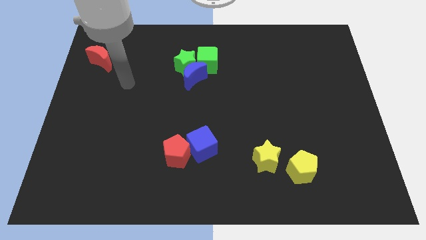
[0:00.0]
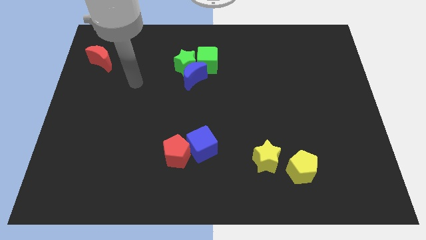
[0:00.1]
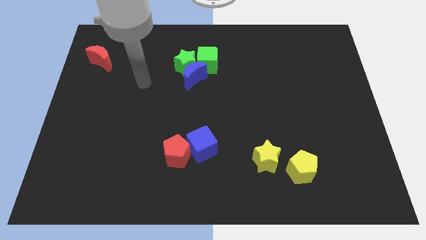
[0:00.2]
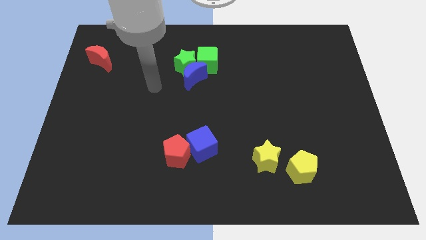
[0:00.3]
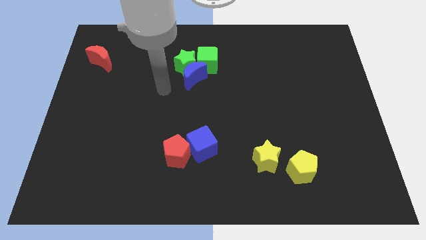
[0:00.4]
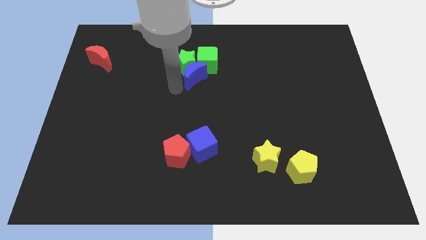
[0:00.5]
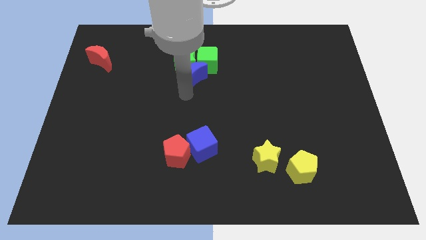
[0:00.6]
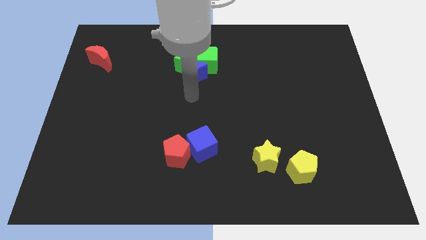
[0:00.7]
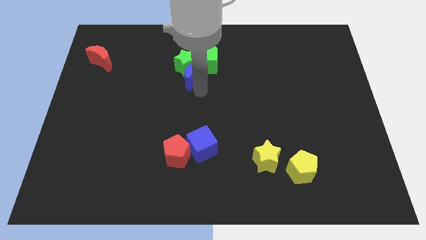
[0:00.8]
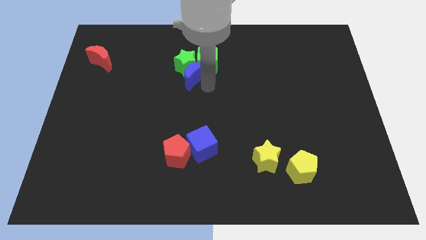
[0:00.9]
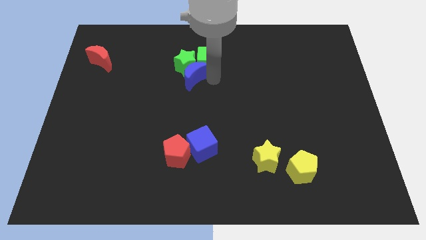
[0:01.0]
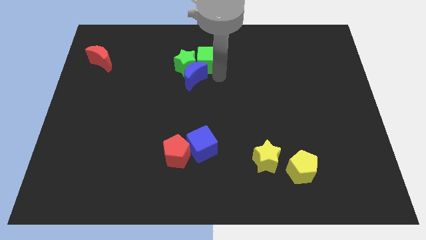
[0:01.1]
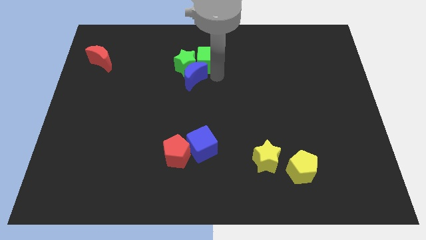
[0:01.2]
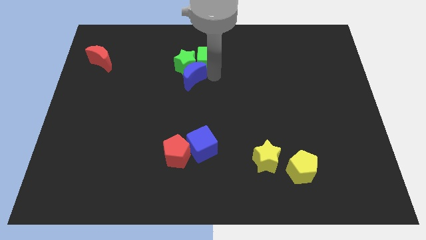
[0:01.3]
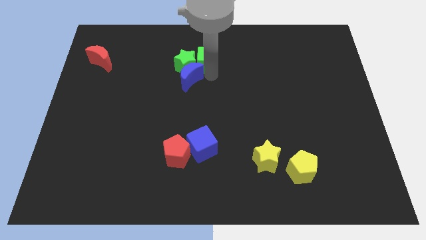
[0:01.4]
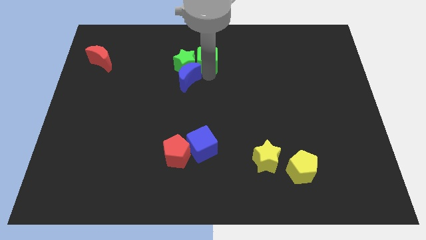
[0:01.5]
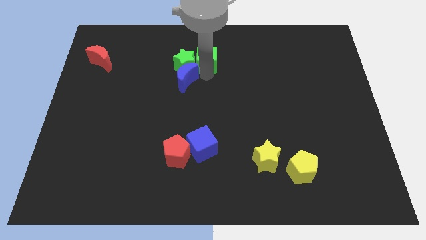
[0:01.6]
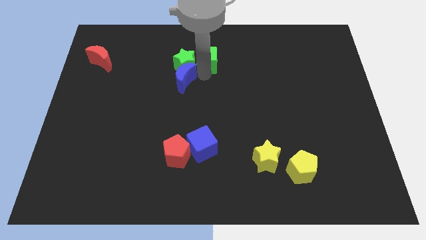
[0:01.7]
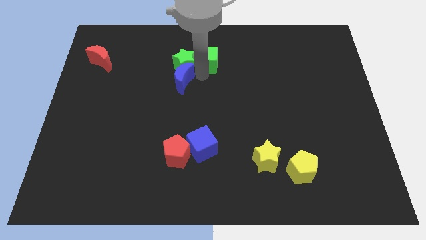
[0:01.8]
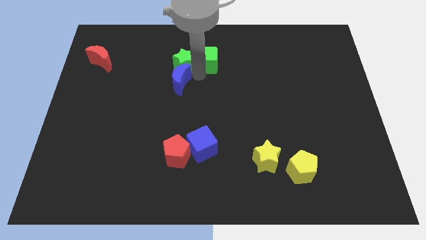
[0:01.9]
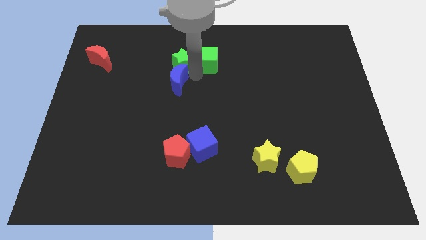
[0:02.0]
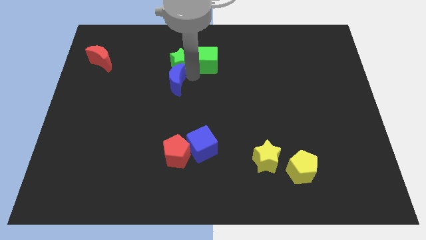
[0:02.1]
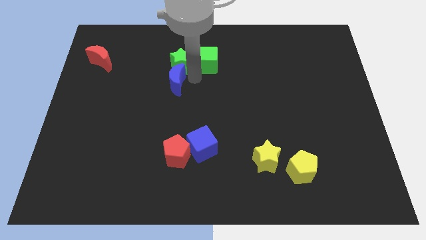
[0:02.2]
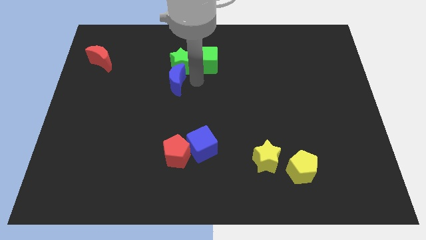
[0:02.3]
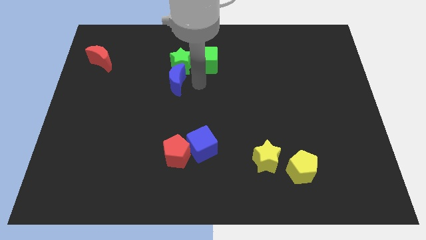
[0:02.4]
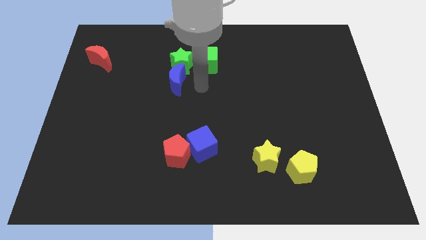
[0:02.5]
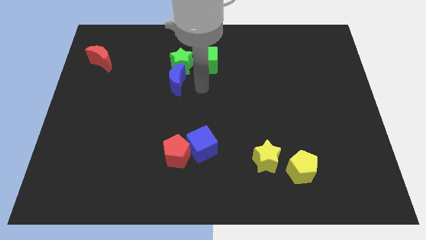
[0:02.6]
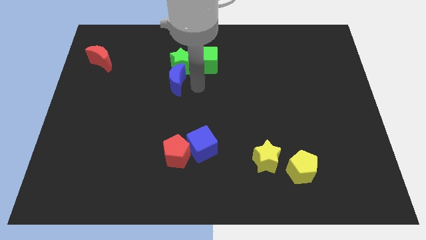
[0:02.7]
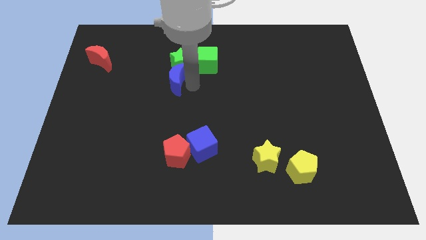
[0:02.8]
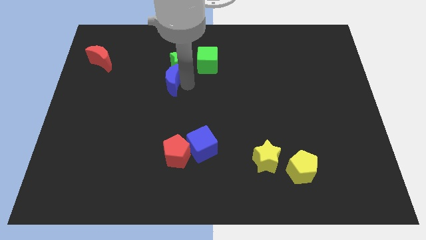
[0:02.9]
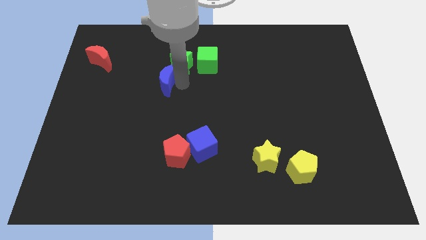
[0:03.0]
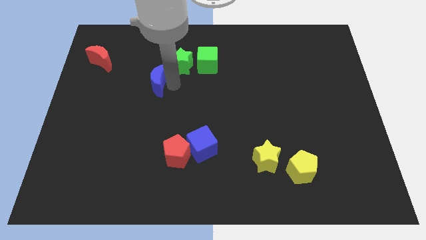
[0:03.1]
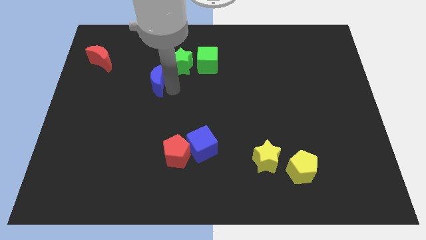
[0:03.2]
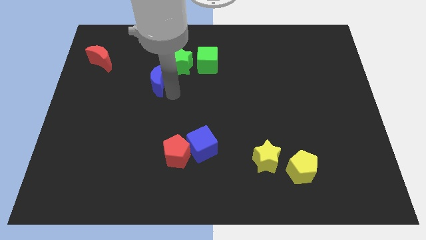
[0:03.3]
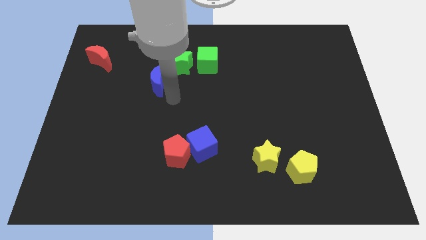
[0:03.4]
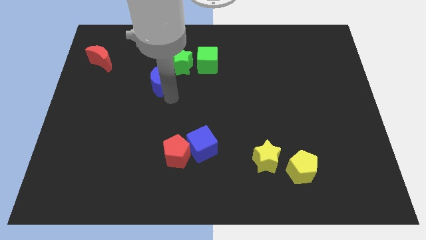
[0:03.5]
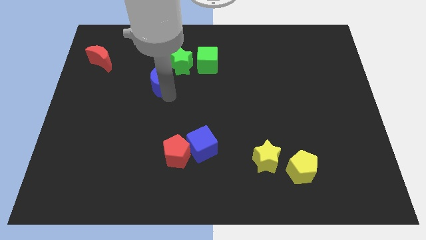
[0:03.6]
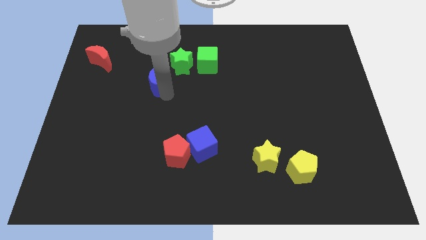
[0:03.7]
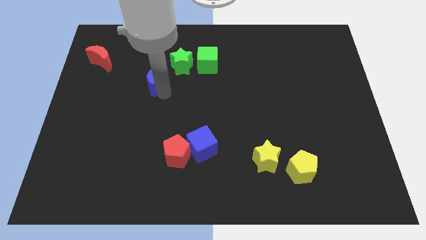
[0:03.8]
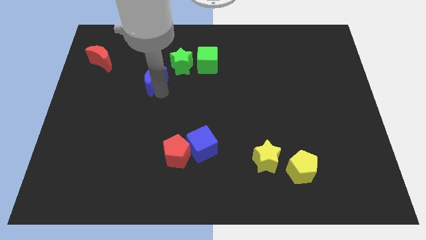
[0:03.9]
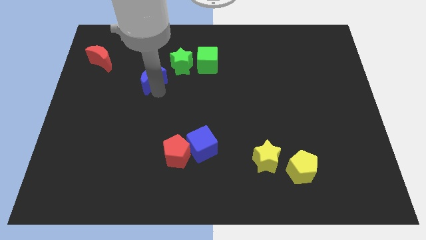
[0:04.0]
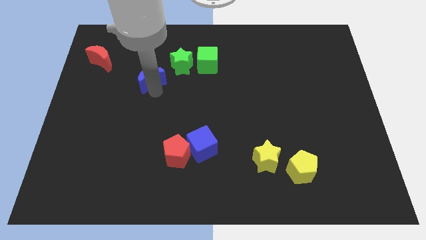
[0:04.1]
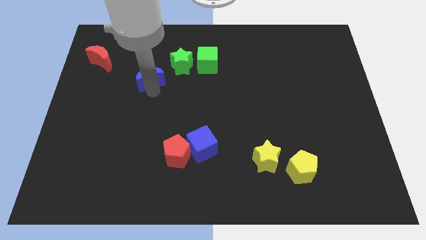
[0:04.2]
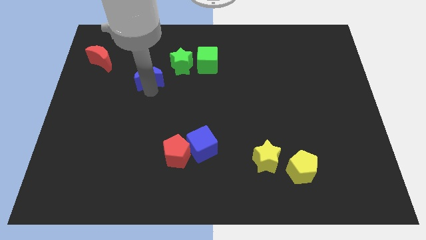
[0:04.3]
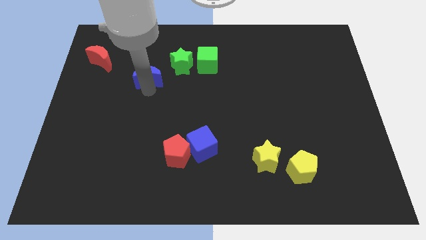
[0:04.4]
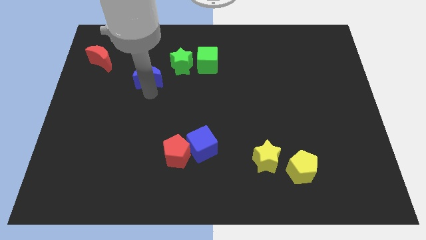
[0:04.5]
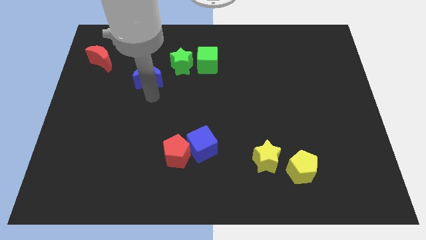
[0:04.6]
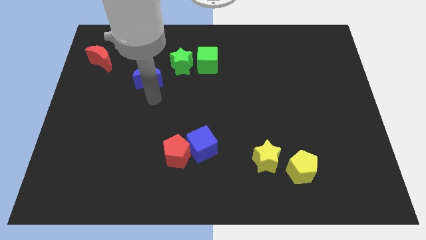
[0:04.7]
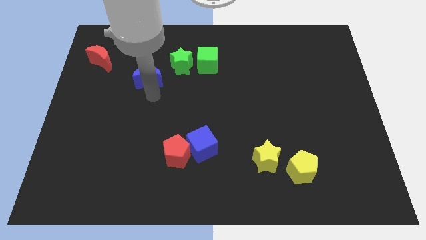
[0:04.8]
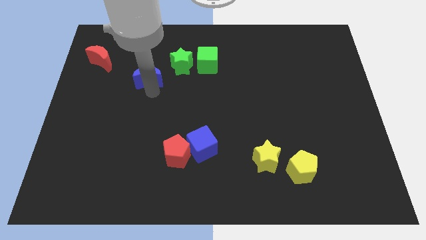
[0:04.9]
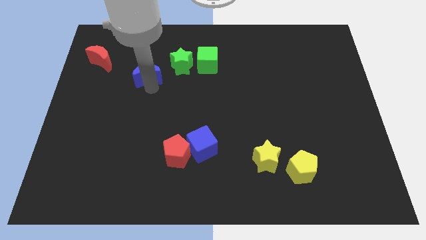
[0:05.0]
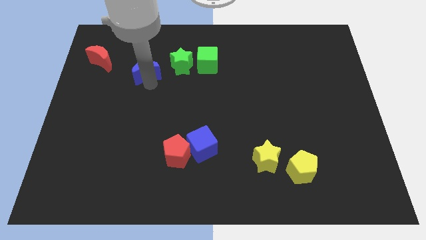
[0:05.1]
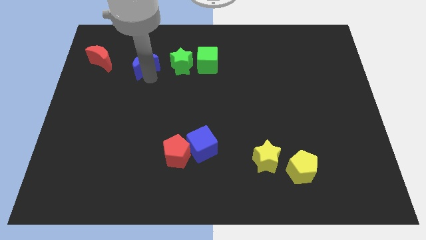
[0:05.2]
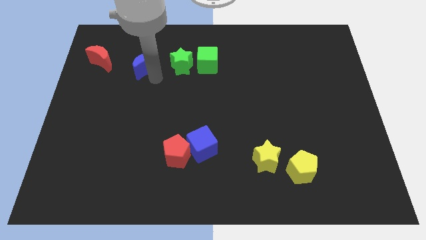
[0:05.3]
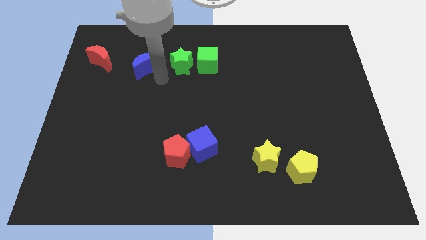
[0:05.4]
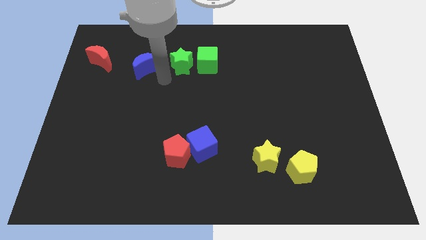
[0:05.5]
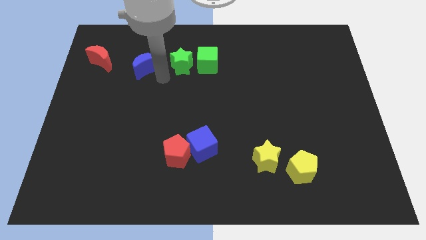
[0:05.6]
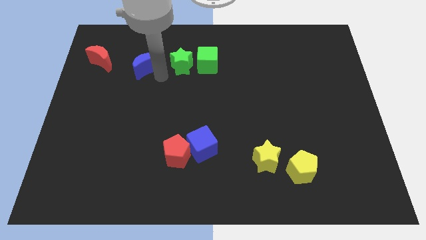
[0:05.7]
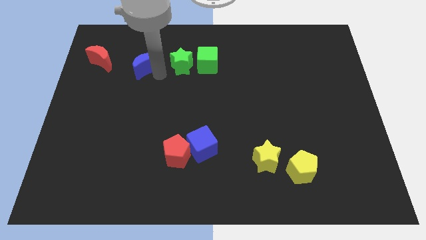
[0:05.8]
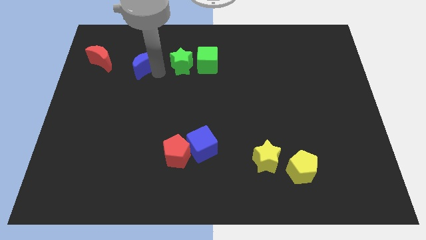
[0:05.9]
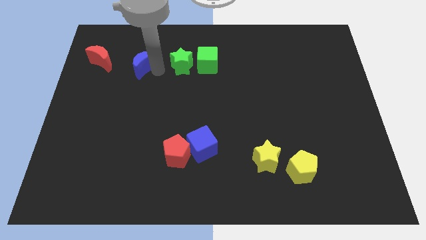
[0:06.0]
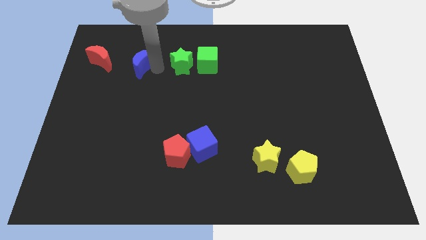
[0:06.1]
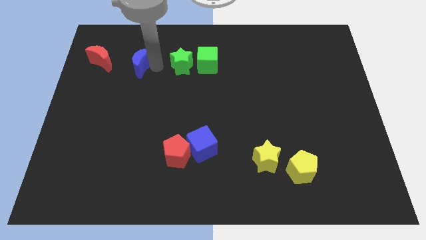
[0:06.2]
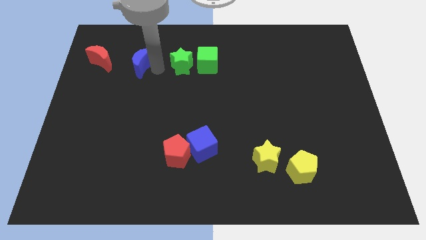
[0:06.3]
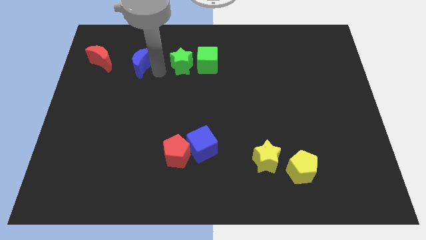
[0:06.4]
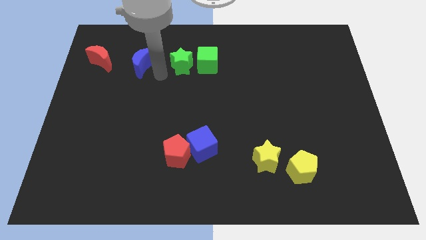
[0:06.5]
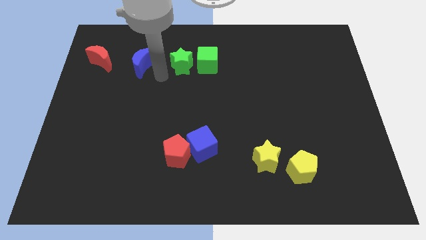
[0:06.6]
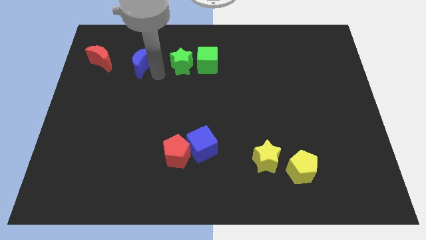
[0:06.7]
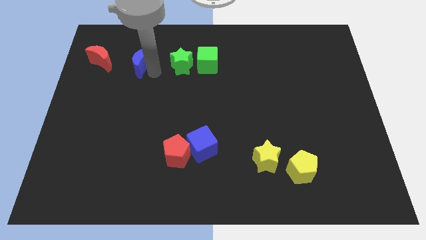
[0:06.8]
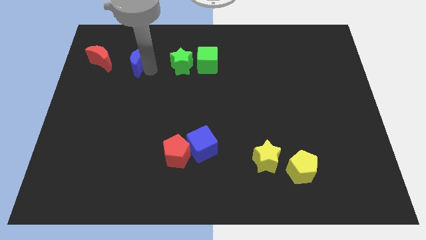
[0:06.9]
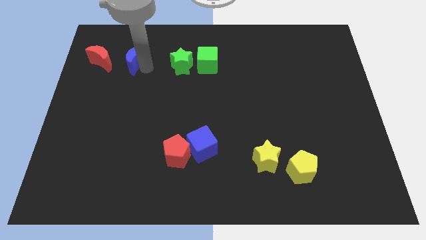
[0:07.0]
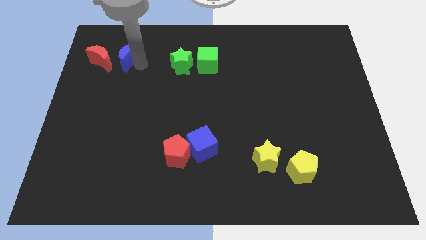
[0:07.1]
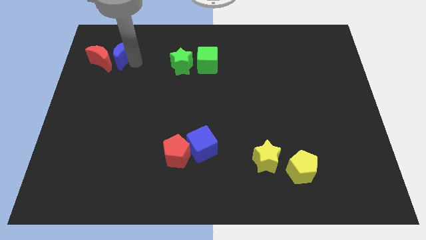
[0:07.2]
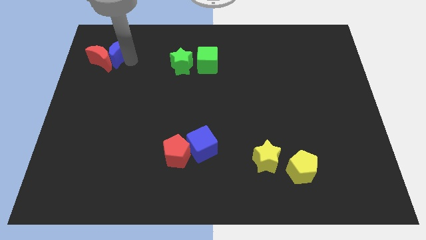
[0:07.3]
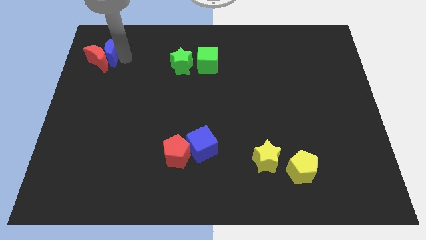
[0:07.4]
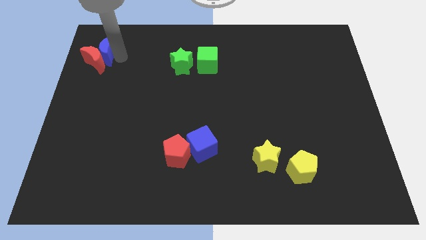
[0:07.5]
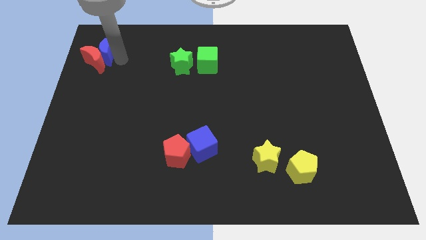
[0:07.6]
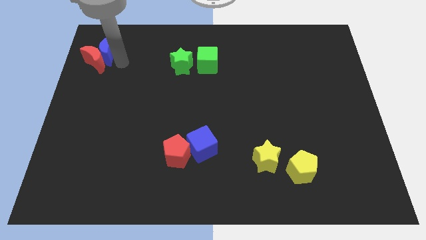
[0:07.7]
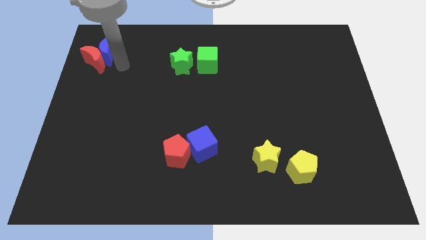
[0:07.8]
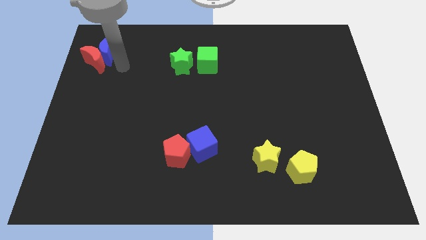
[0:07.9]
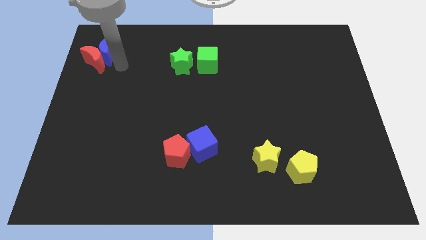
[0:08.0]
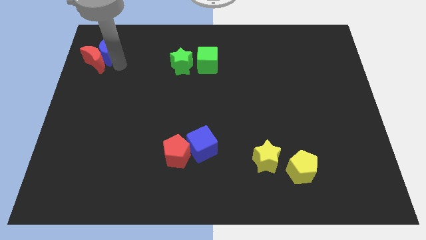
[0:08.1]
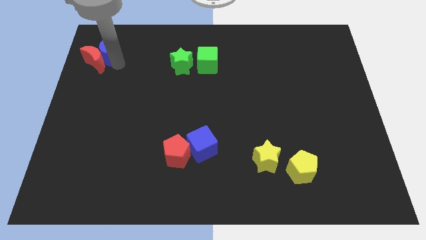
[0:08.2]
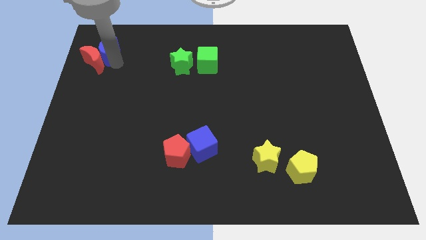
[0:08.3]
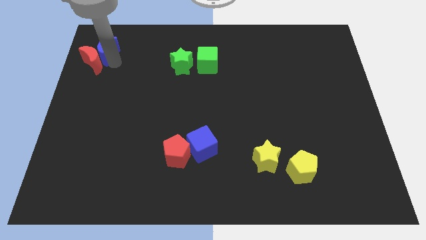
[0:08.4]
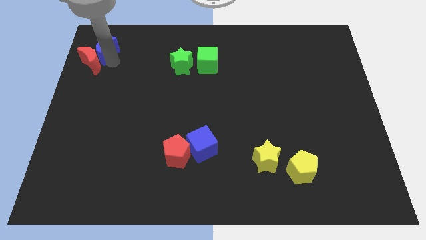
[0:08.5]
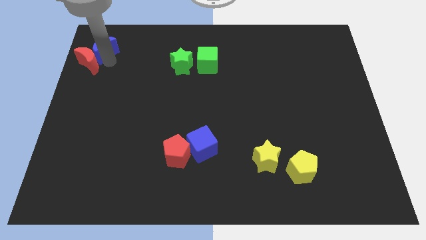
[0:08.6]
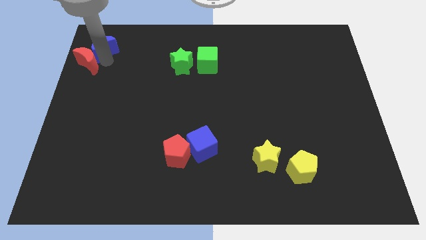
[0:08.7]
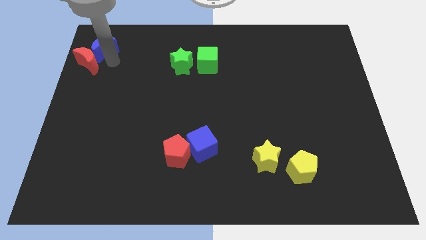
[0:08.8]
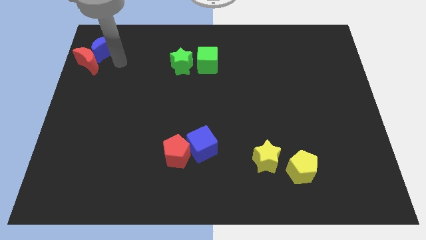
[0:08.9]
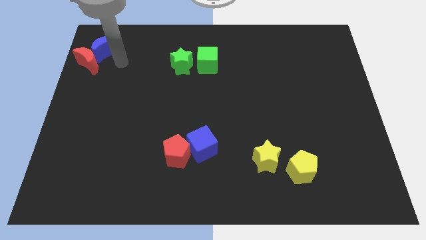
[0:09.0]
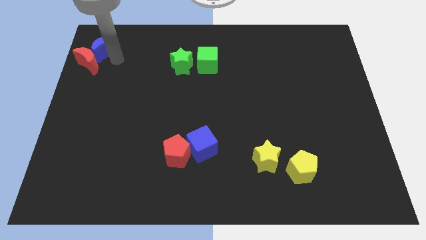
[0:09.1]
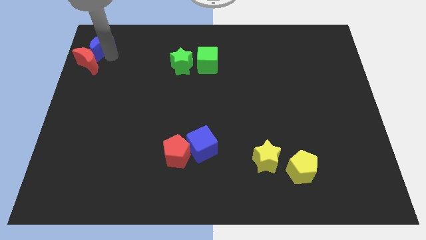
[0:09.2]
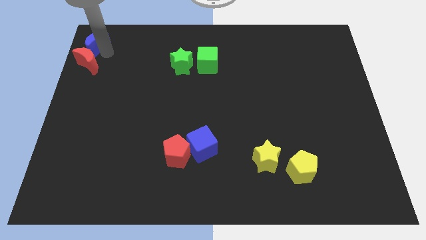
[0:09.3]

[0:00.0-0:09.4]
slide the blue moon to the top left
